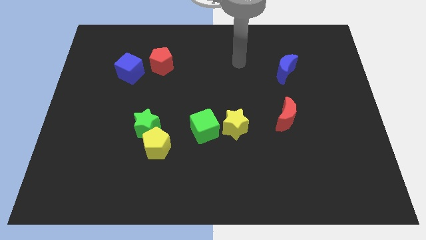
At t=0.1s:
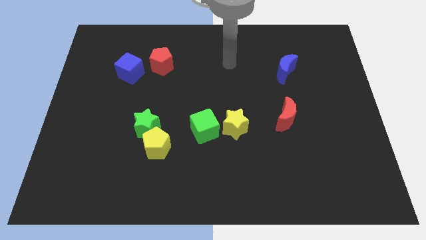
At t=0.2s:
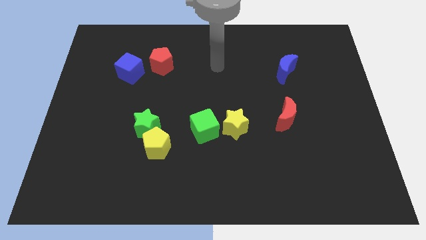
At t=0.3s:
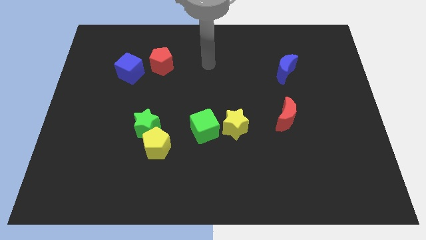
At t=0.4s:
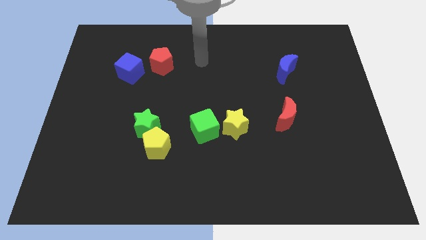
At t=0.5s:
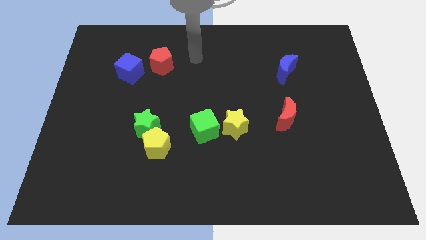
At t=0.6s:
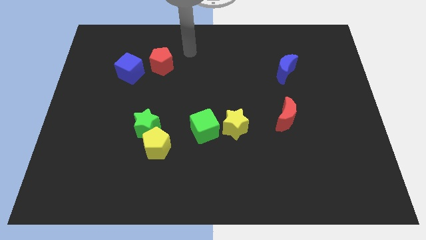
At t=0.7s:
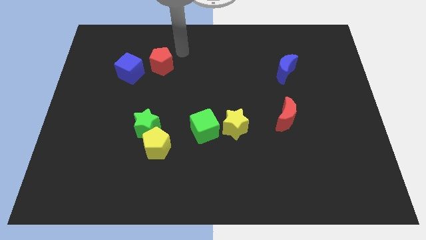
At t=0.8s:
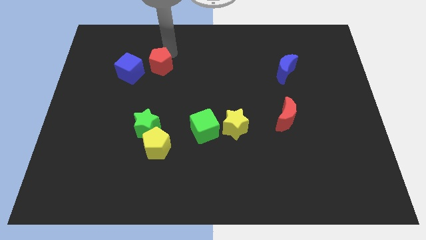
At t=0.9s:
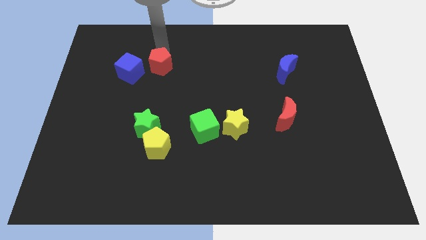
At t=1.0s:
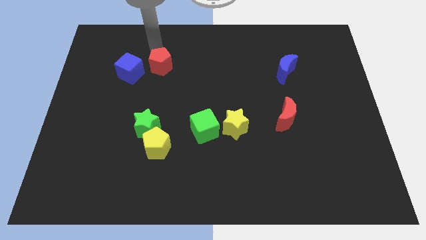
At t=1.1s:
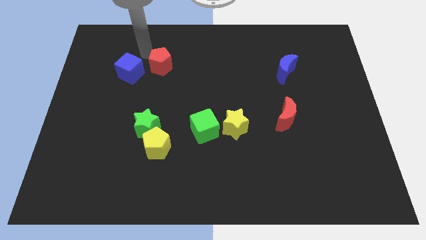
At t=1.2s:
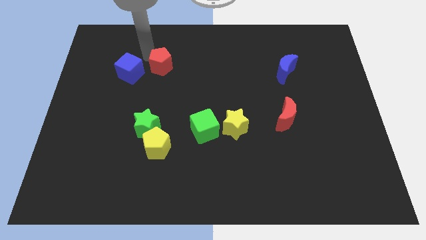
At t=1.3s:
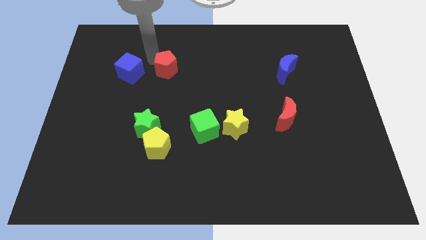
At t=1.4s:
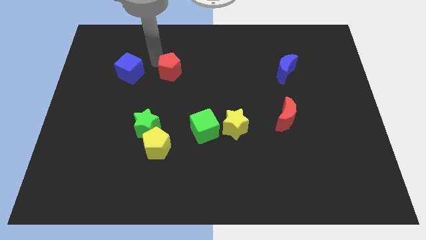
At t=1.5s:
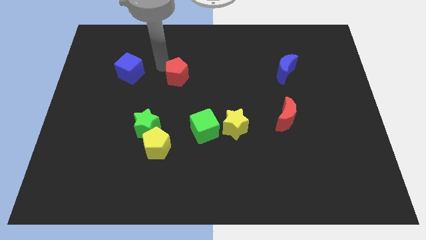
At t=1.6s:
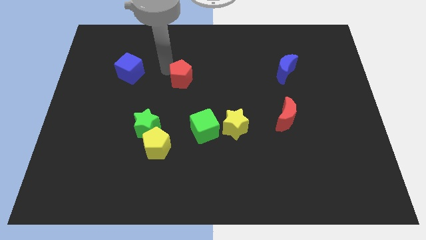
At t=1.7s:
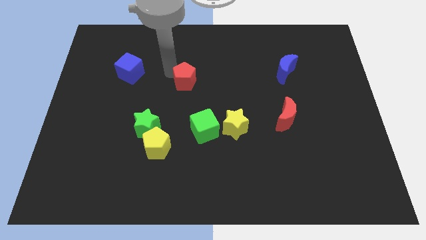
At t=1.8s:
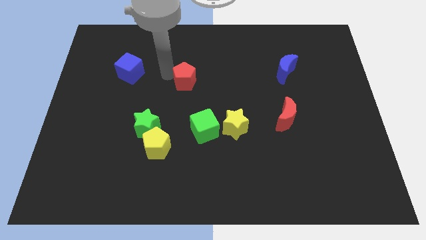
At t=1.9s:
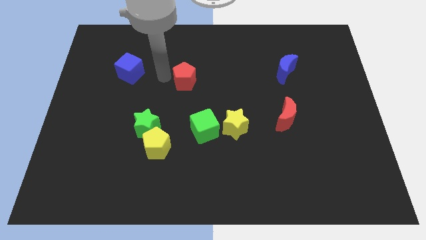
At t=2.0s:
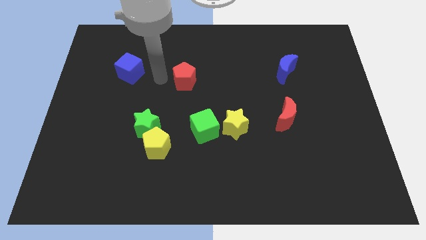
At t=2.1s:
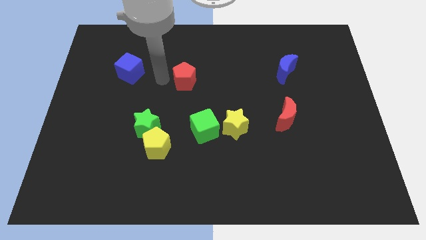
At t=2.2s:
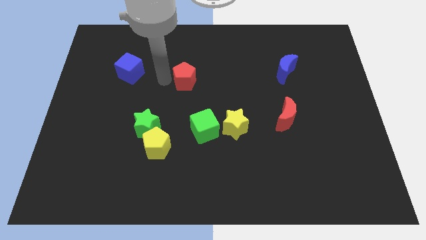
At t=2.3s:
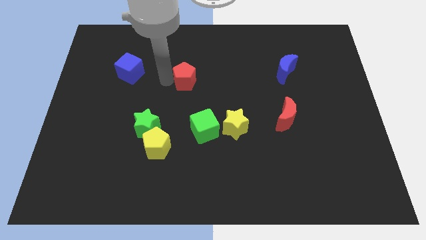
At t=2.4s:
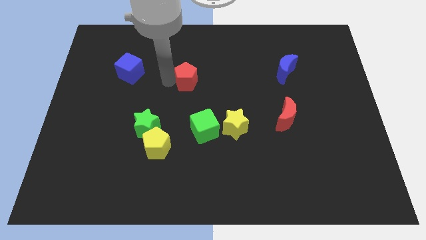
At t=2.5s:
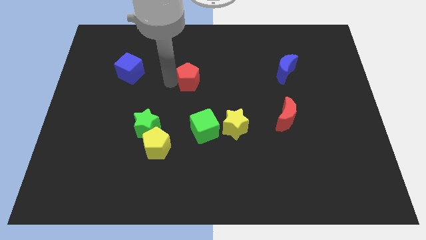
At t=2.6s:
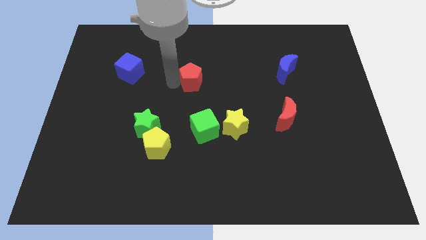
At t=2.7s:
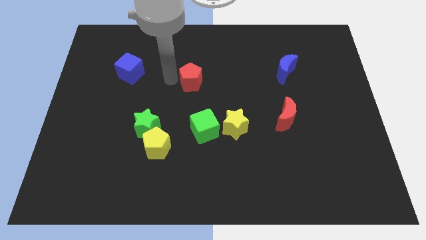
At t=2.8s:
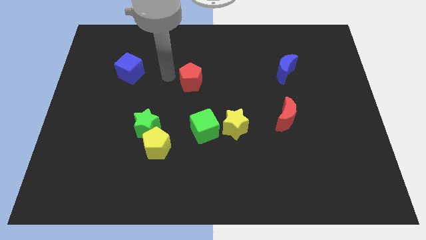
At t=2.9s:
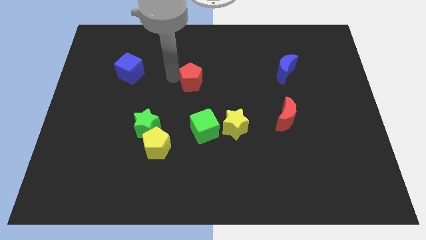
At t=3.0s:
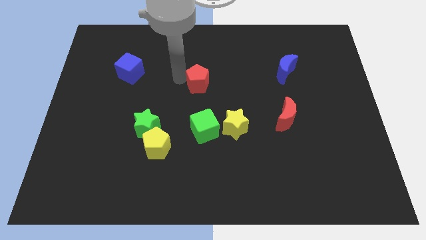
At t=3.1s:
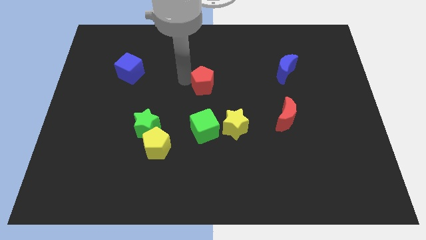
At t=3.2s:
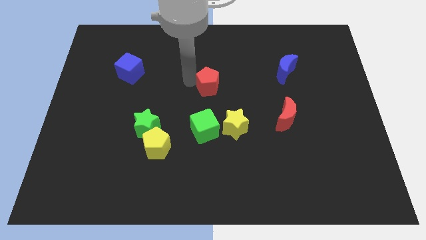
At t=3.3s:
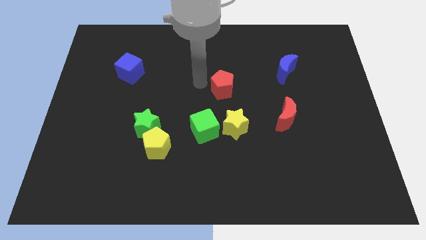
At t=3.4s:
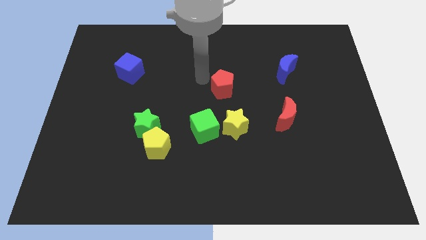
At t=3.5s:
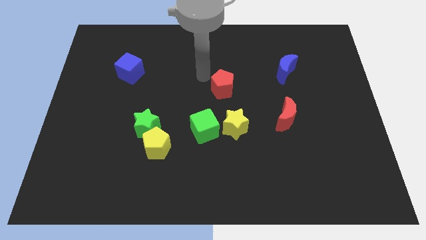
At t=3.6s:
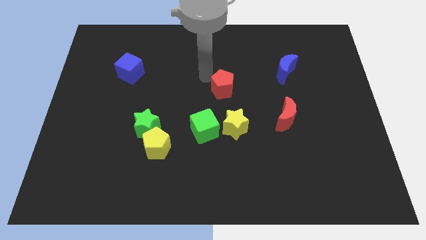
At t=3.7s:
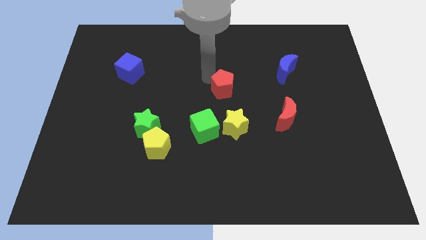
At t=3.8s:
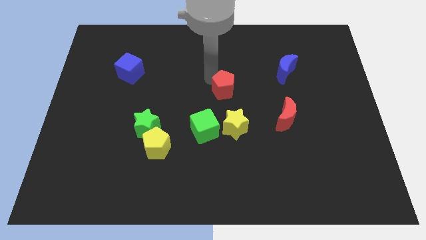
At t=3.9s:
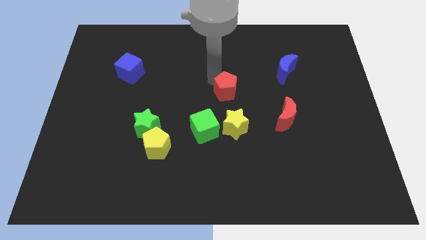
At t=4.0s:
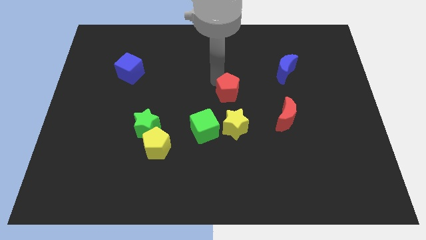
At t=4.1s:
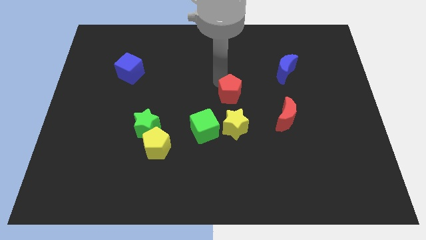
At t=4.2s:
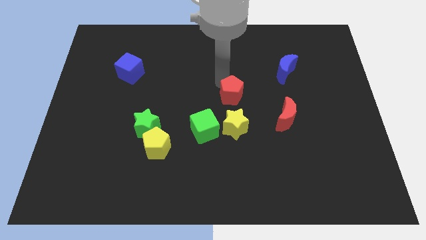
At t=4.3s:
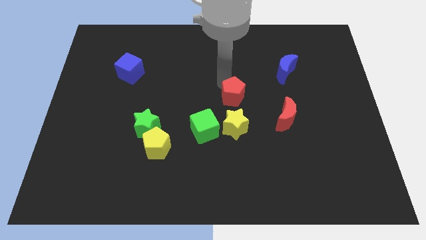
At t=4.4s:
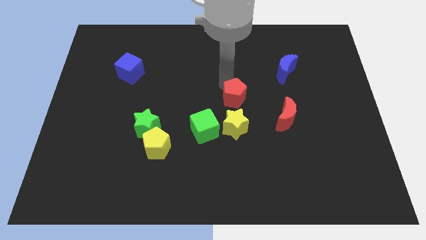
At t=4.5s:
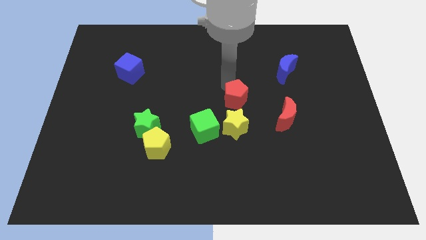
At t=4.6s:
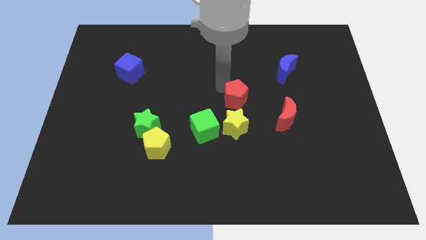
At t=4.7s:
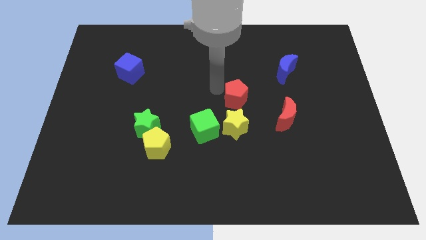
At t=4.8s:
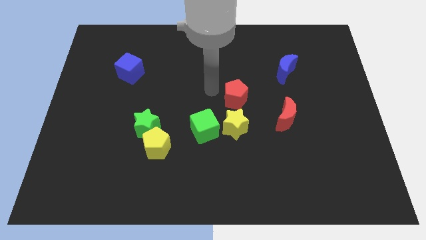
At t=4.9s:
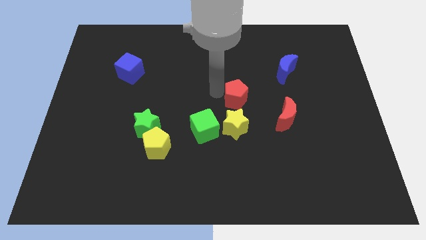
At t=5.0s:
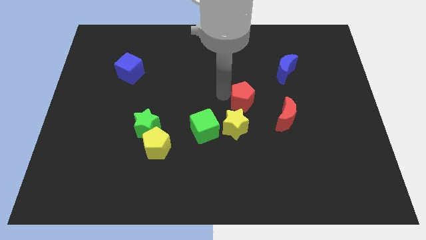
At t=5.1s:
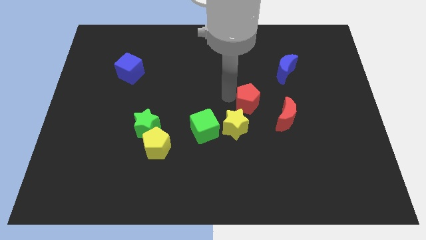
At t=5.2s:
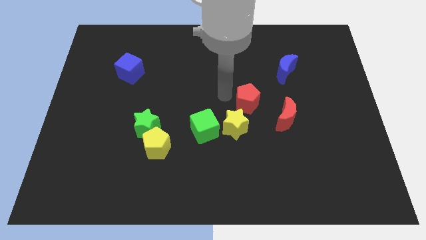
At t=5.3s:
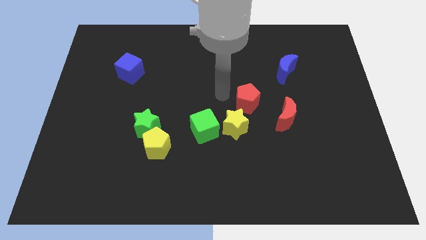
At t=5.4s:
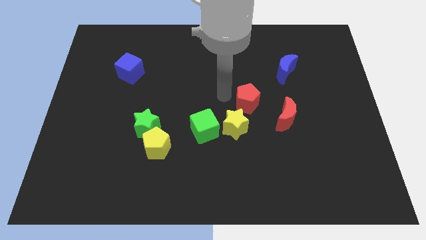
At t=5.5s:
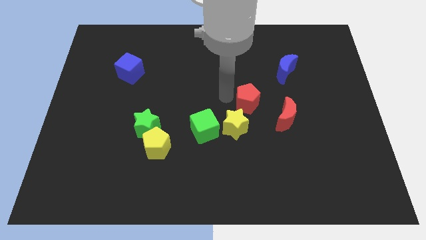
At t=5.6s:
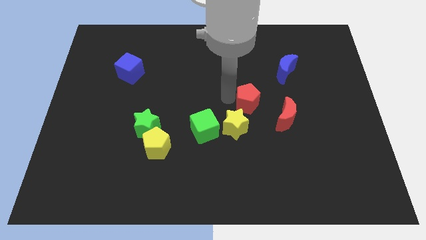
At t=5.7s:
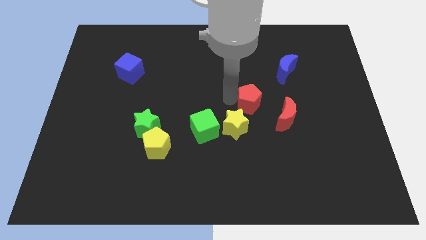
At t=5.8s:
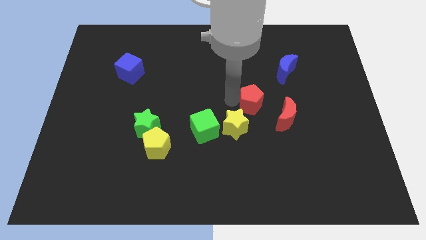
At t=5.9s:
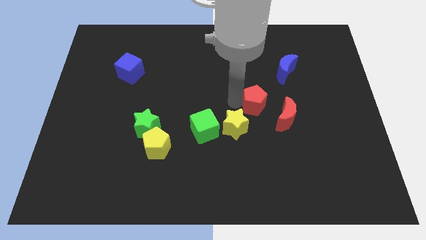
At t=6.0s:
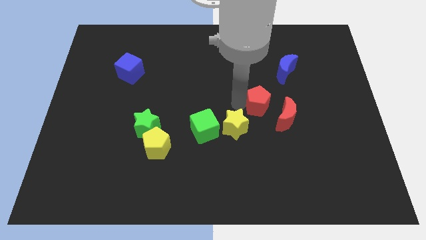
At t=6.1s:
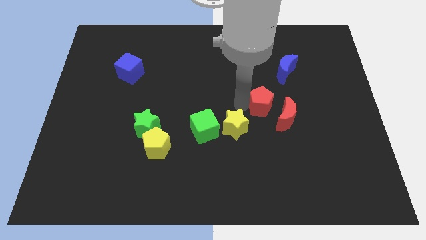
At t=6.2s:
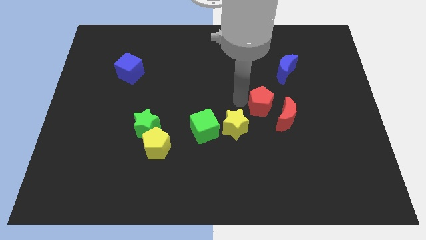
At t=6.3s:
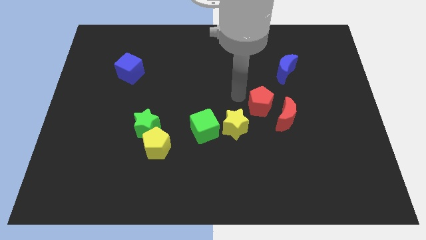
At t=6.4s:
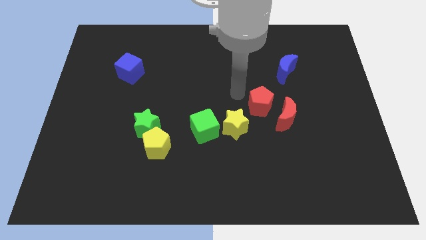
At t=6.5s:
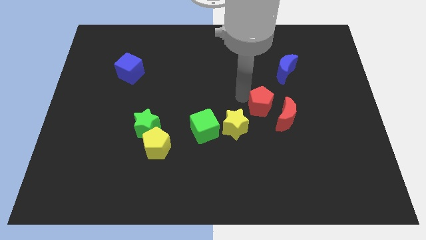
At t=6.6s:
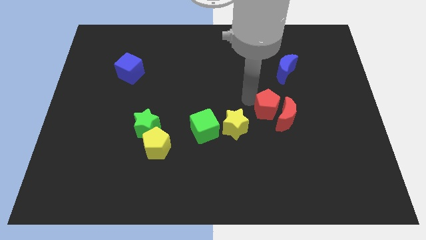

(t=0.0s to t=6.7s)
move the red pentagon next to the red moon

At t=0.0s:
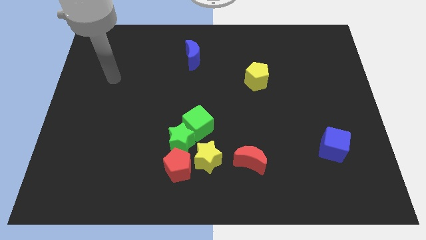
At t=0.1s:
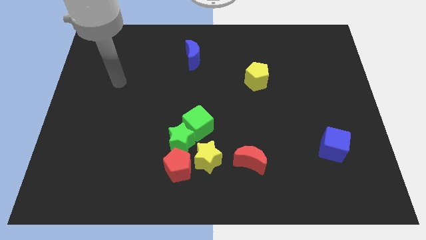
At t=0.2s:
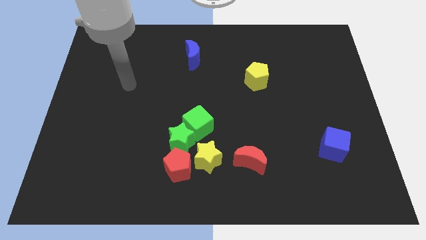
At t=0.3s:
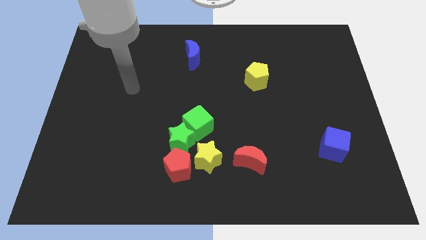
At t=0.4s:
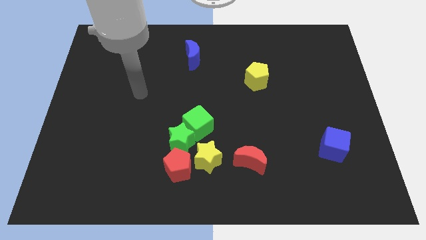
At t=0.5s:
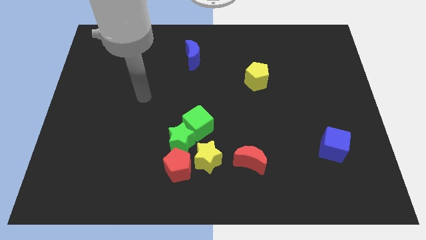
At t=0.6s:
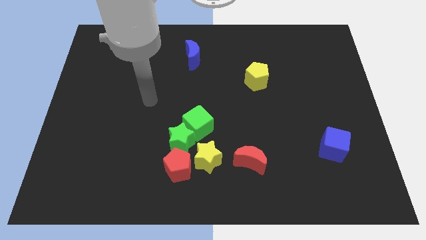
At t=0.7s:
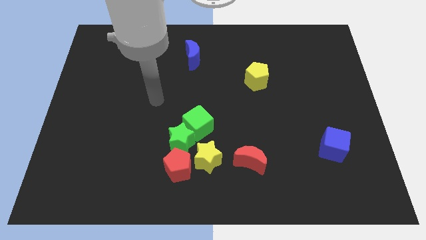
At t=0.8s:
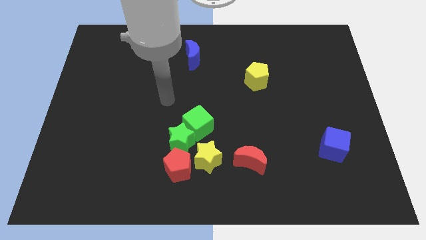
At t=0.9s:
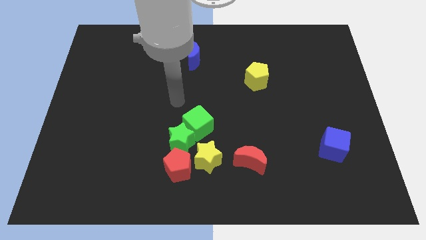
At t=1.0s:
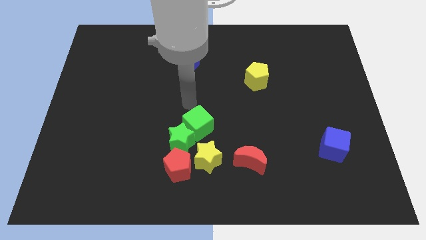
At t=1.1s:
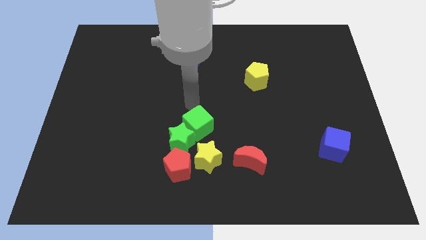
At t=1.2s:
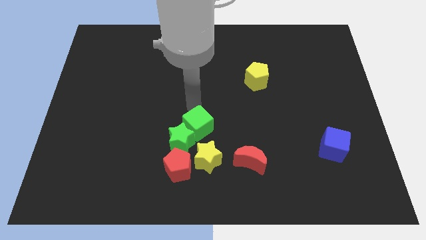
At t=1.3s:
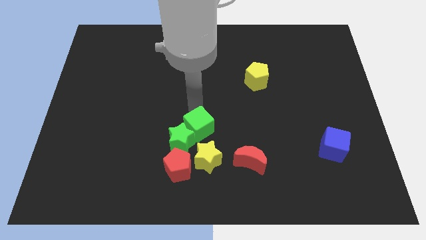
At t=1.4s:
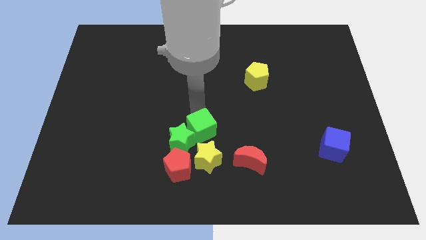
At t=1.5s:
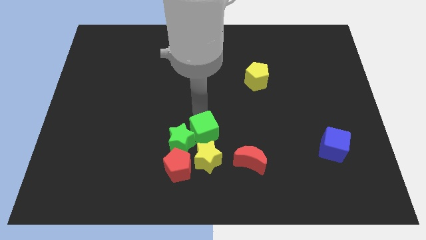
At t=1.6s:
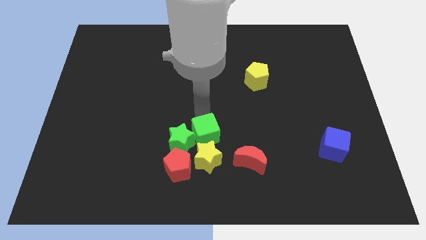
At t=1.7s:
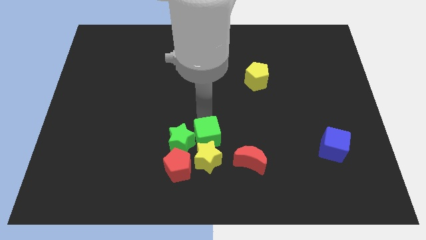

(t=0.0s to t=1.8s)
slide the green cube to the yellow star
